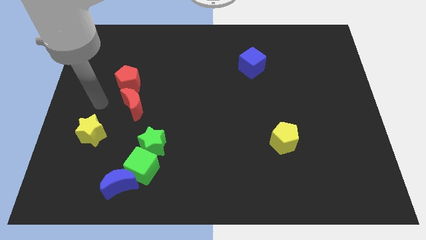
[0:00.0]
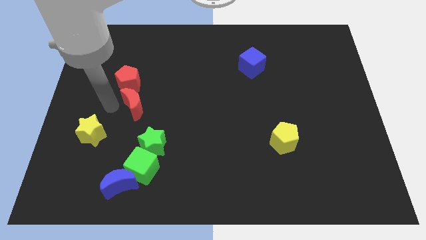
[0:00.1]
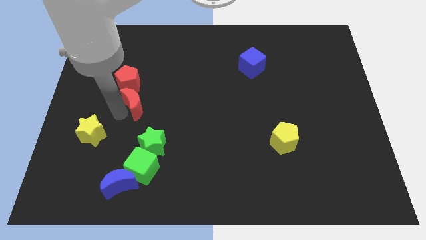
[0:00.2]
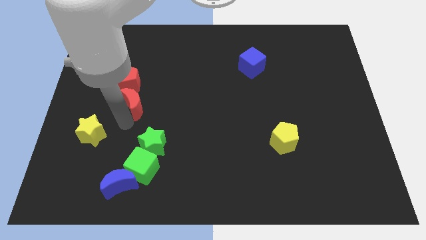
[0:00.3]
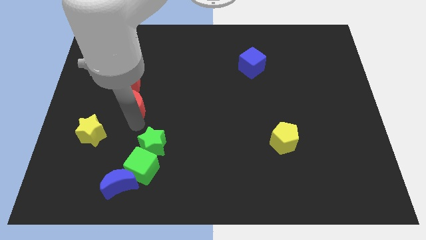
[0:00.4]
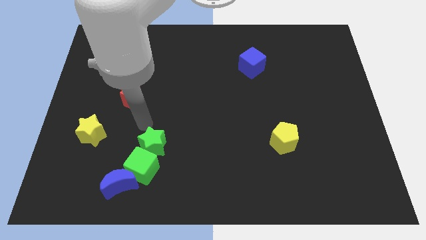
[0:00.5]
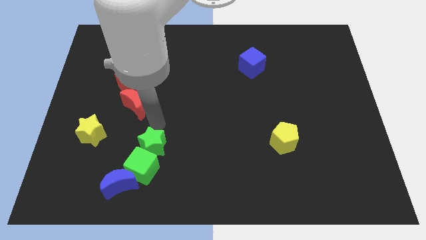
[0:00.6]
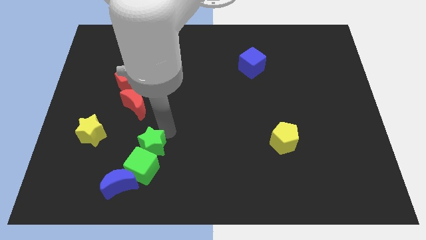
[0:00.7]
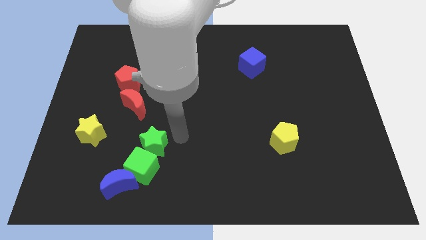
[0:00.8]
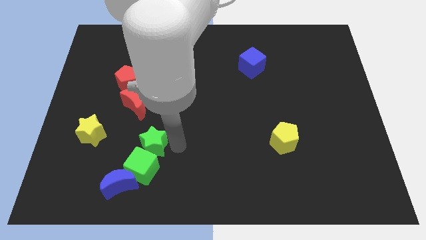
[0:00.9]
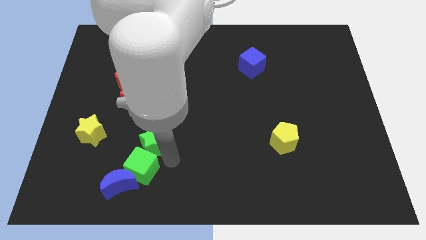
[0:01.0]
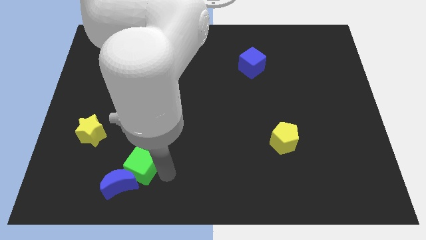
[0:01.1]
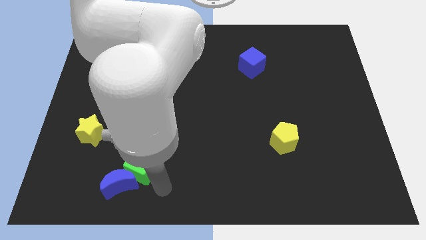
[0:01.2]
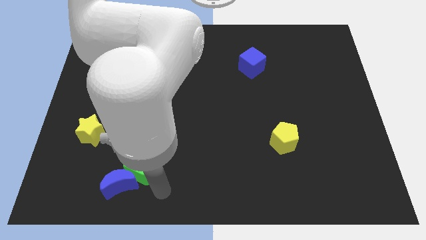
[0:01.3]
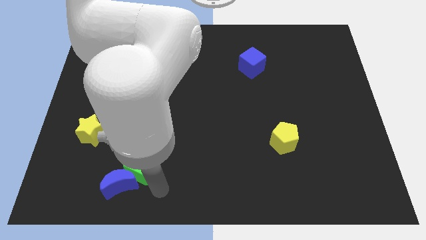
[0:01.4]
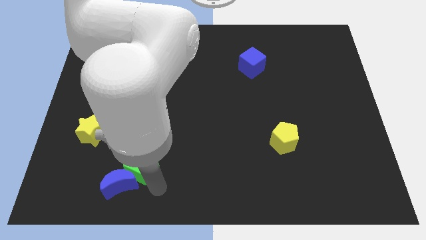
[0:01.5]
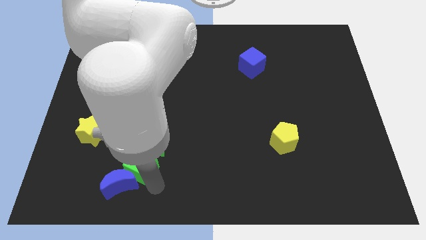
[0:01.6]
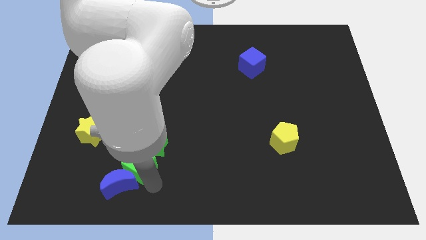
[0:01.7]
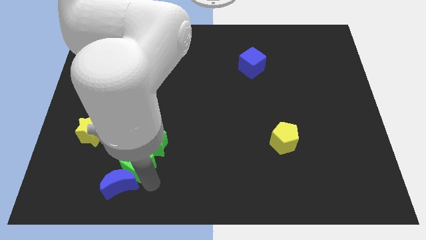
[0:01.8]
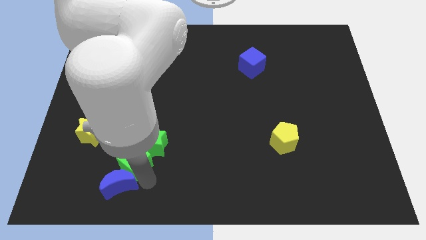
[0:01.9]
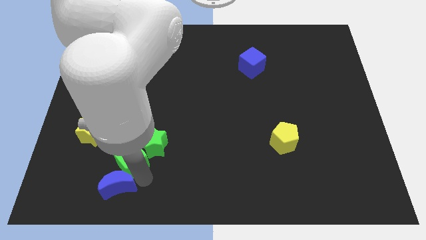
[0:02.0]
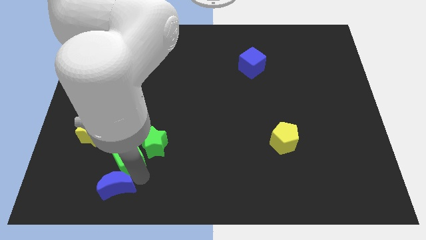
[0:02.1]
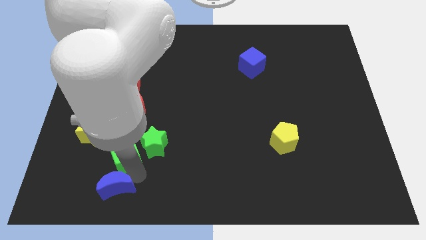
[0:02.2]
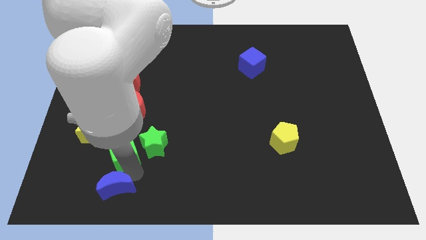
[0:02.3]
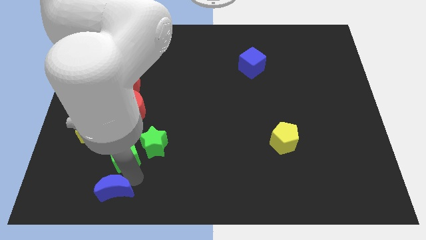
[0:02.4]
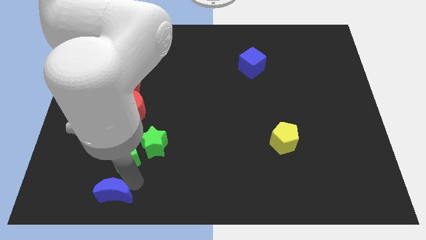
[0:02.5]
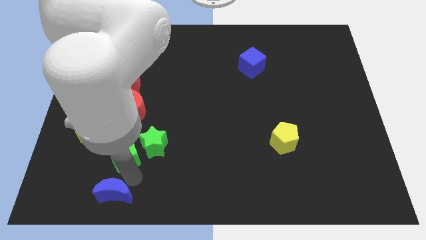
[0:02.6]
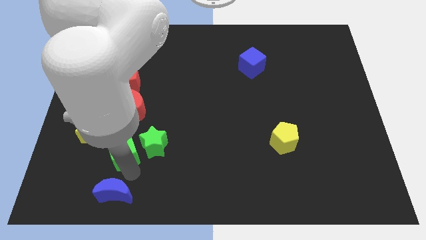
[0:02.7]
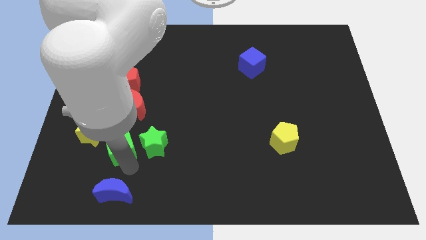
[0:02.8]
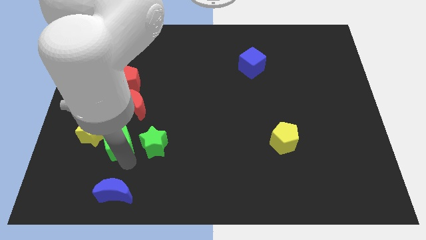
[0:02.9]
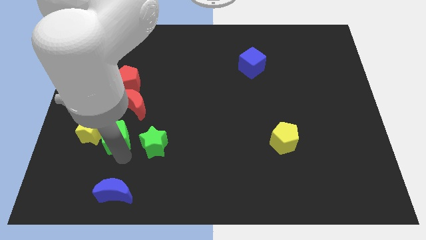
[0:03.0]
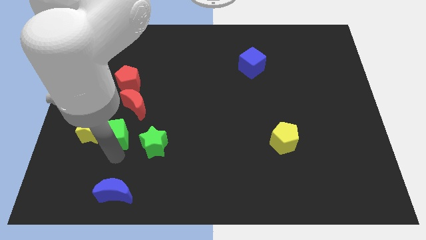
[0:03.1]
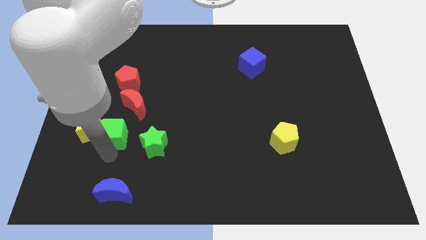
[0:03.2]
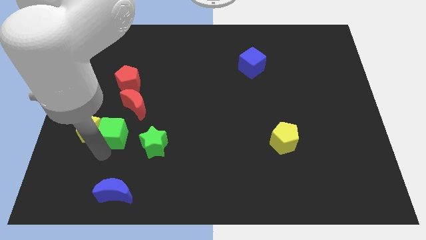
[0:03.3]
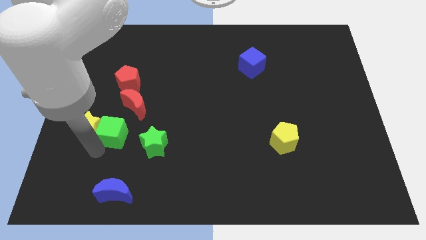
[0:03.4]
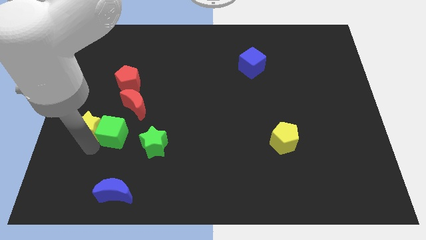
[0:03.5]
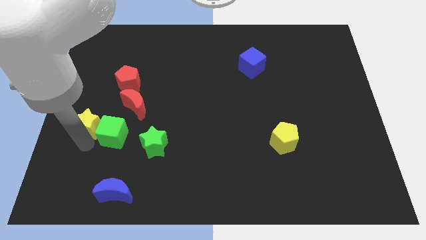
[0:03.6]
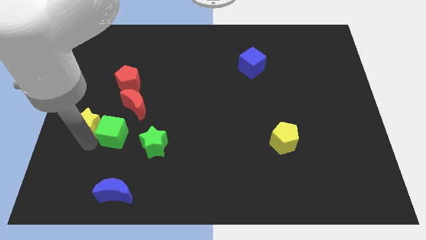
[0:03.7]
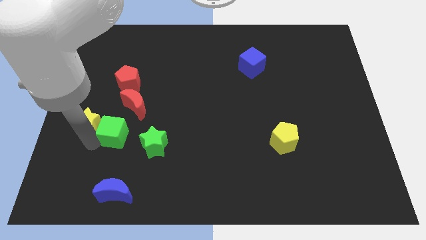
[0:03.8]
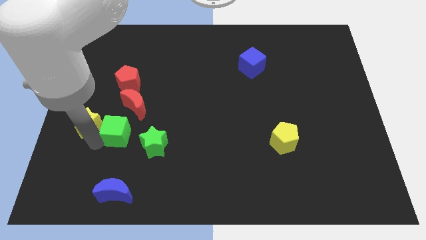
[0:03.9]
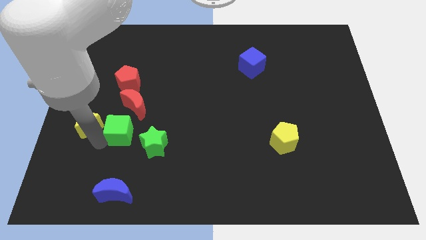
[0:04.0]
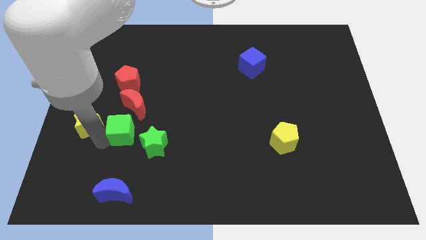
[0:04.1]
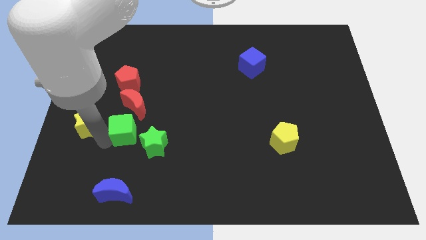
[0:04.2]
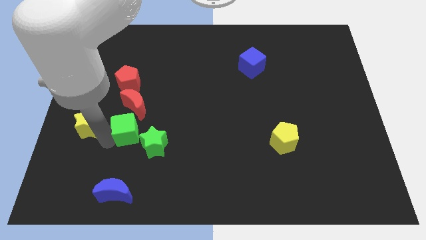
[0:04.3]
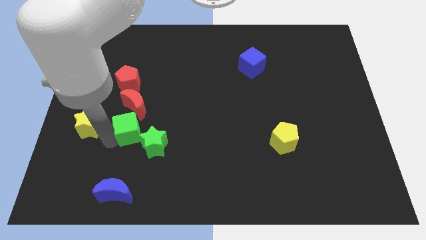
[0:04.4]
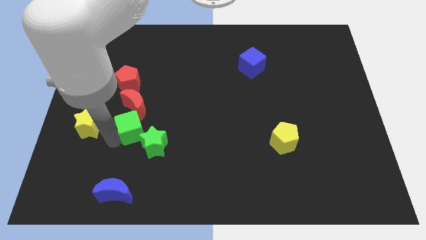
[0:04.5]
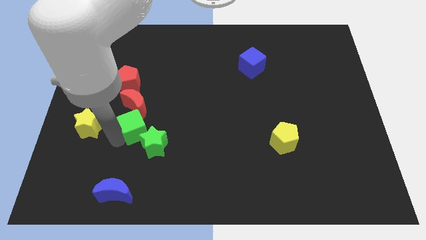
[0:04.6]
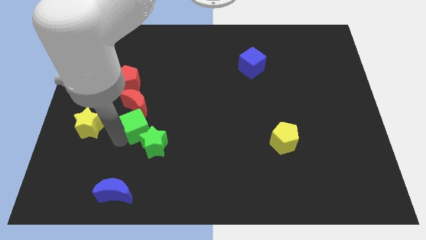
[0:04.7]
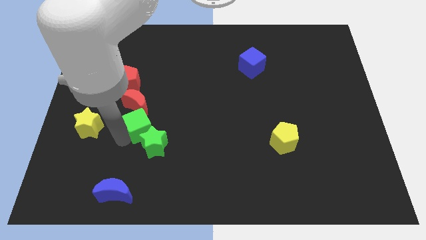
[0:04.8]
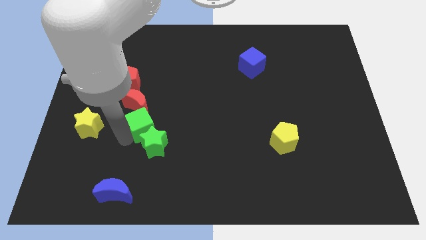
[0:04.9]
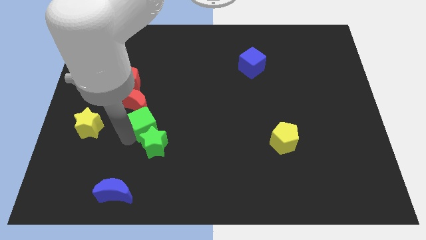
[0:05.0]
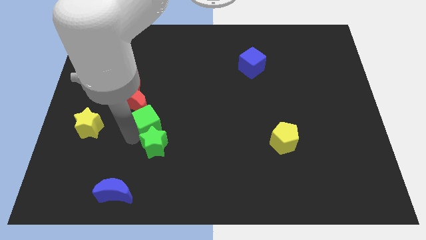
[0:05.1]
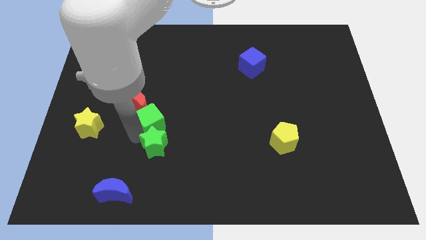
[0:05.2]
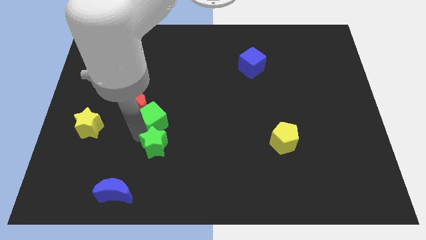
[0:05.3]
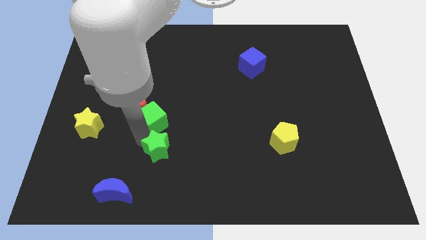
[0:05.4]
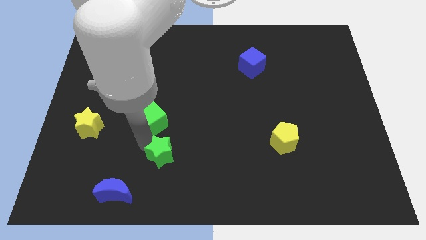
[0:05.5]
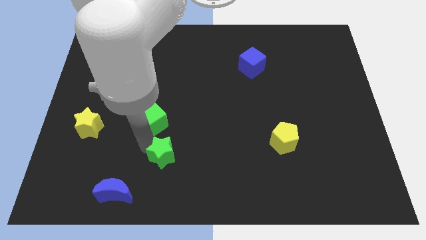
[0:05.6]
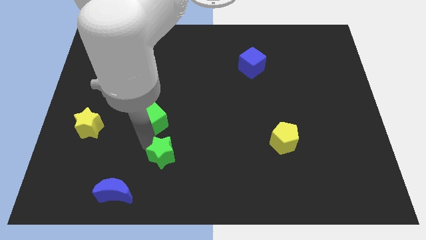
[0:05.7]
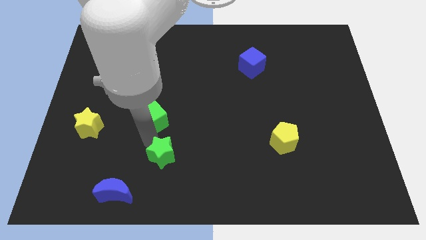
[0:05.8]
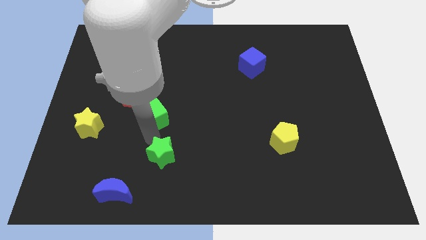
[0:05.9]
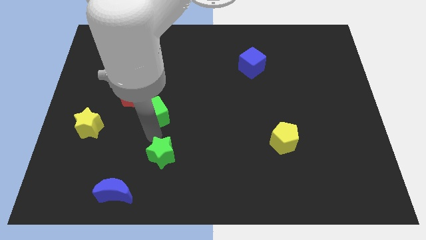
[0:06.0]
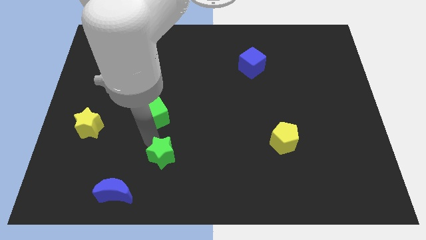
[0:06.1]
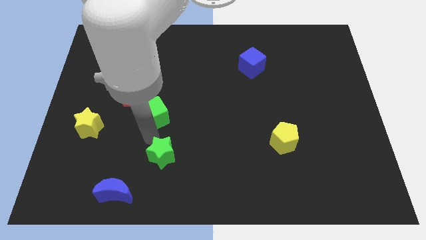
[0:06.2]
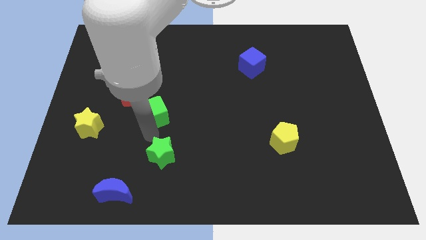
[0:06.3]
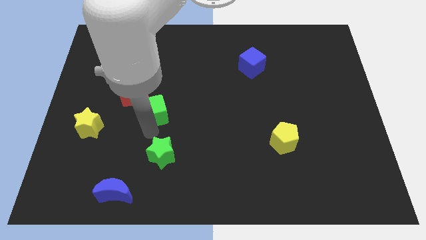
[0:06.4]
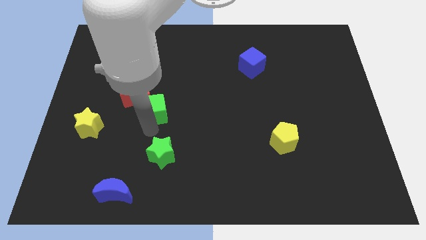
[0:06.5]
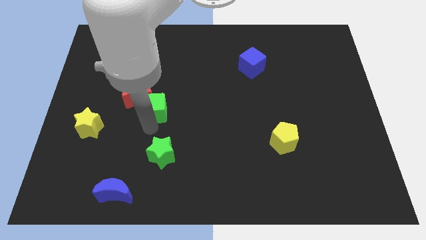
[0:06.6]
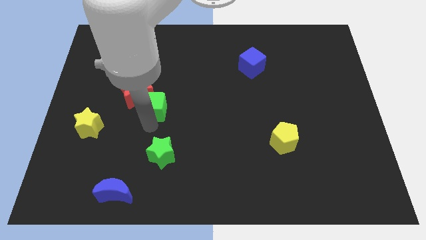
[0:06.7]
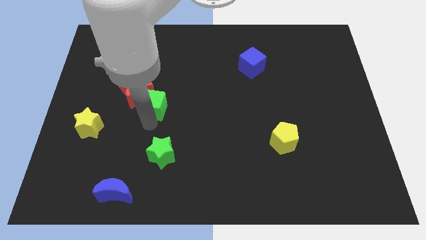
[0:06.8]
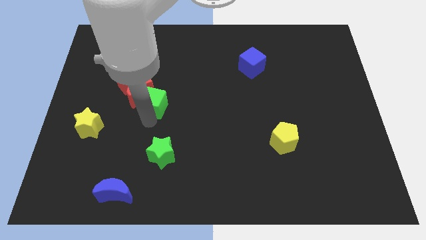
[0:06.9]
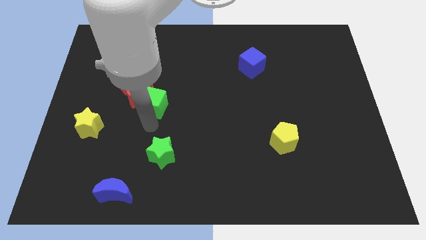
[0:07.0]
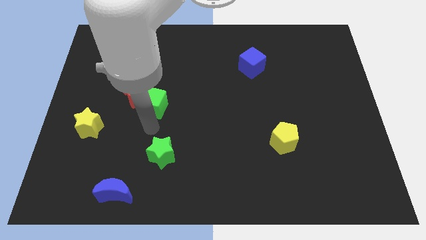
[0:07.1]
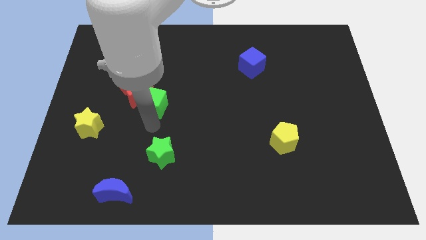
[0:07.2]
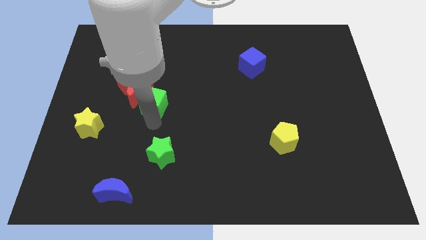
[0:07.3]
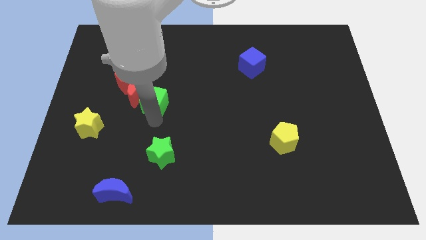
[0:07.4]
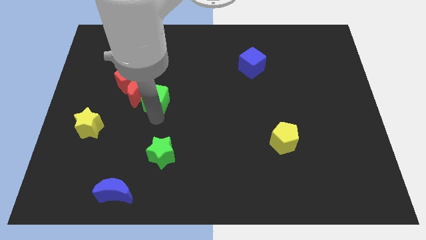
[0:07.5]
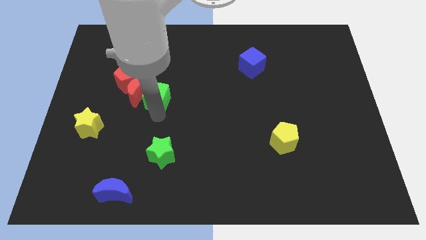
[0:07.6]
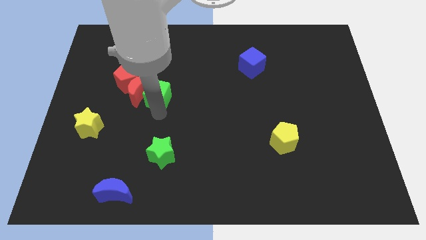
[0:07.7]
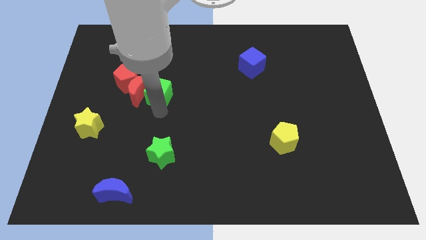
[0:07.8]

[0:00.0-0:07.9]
push the green cube up

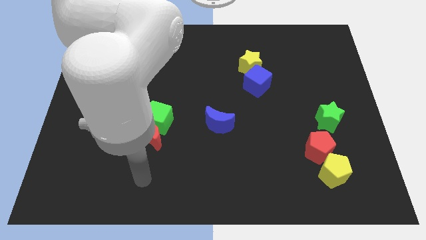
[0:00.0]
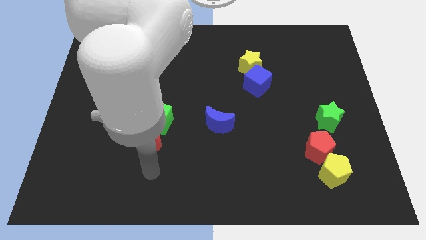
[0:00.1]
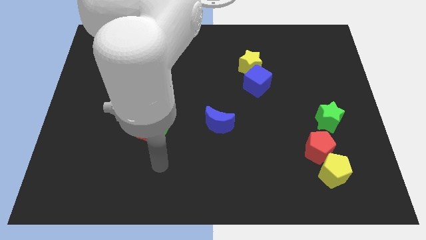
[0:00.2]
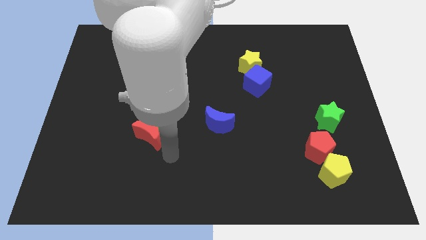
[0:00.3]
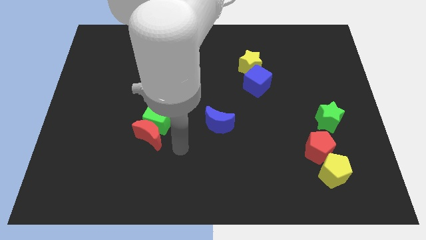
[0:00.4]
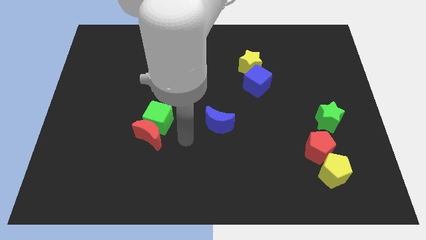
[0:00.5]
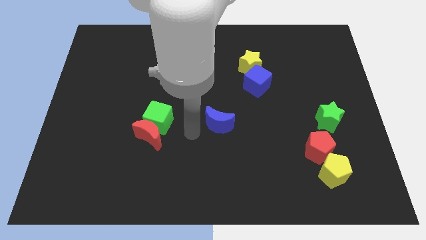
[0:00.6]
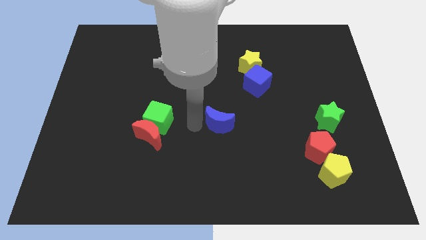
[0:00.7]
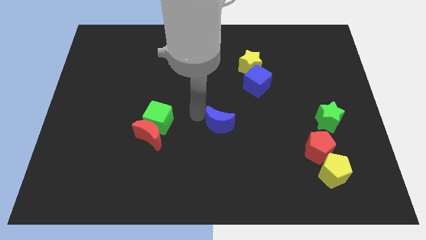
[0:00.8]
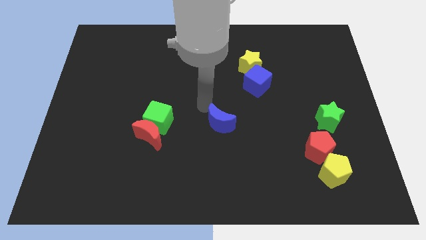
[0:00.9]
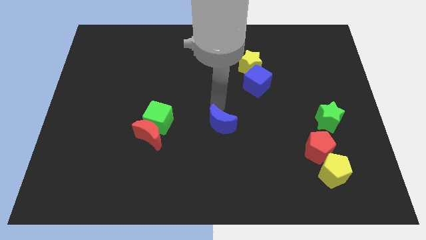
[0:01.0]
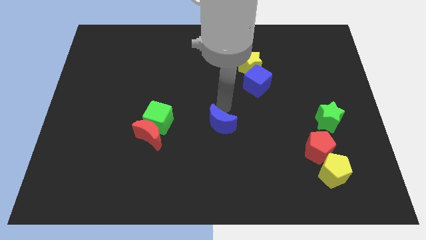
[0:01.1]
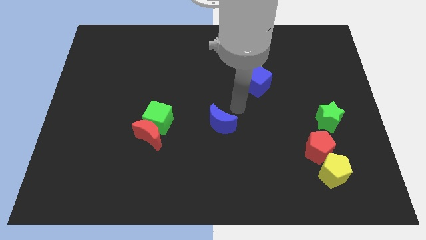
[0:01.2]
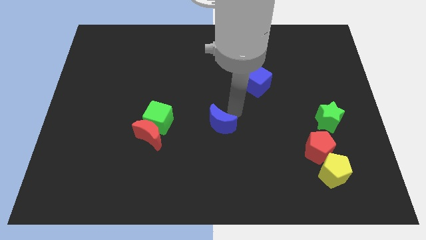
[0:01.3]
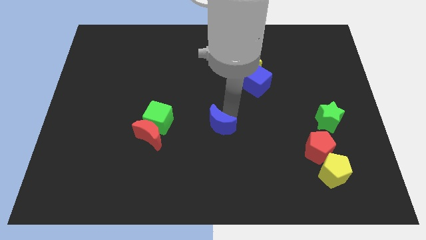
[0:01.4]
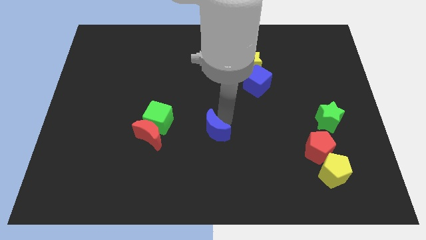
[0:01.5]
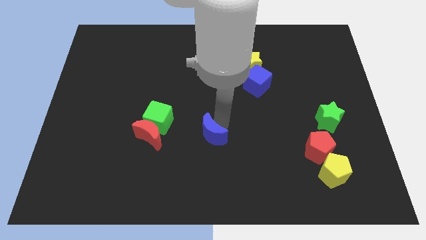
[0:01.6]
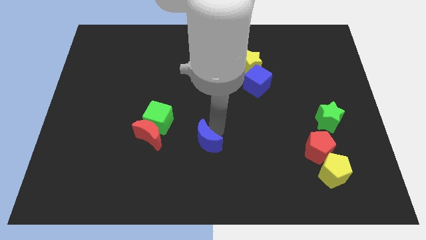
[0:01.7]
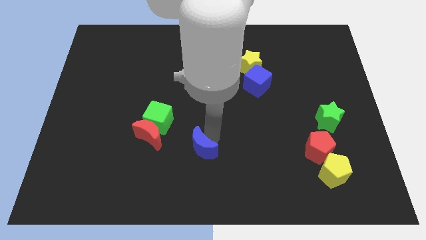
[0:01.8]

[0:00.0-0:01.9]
push the blue moon down and left somewhat
